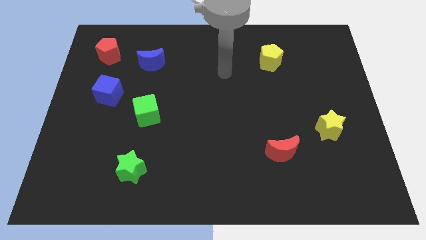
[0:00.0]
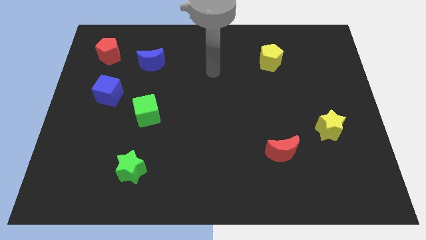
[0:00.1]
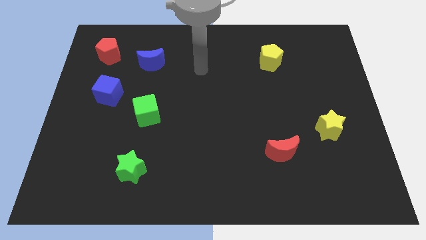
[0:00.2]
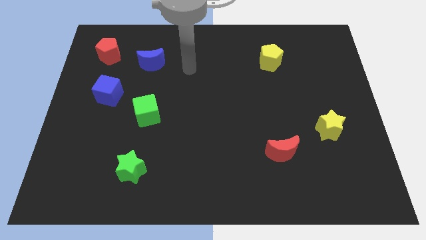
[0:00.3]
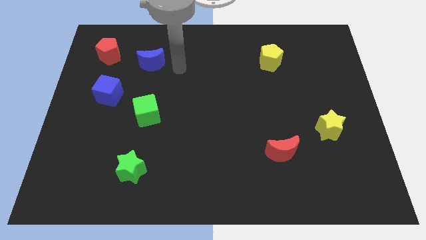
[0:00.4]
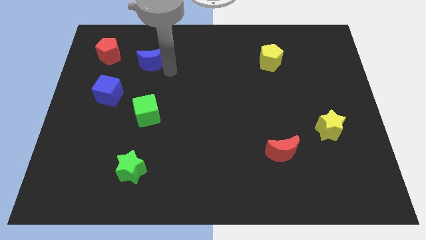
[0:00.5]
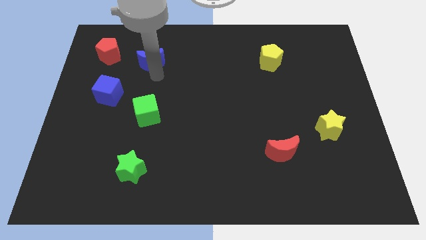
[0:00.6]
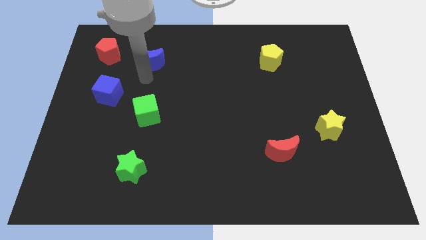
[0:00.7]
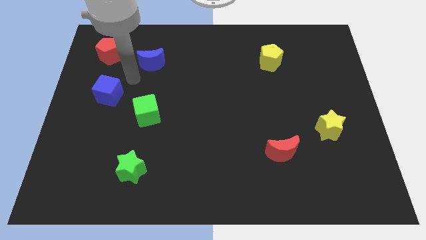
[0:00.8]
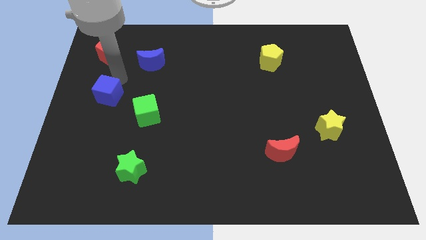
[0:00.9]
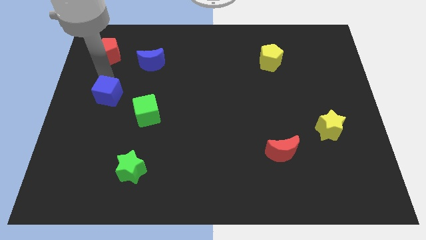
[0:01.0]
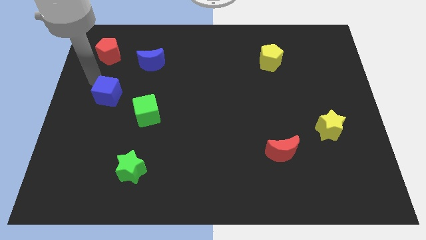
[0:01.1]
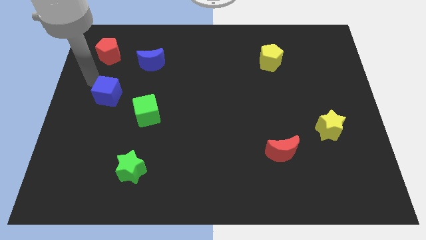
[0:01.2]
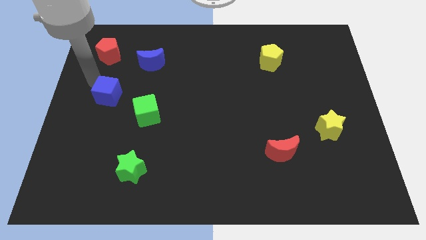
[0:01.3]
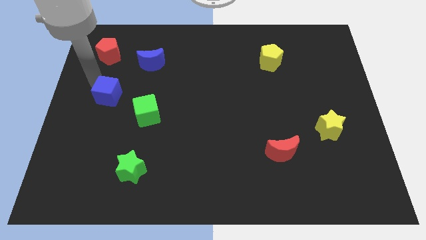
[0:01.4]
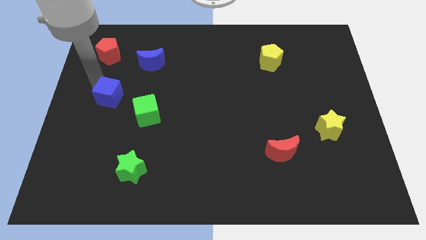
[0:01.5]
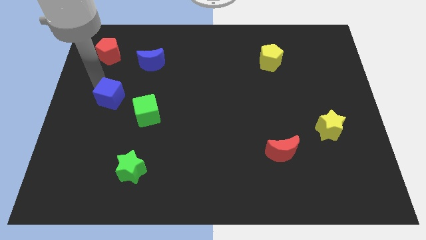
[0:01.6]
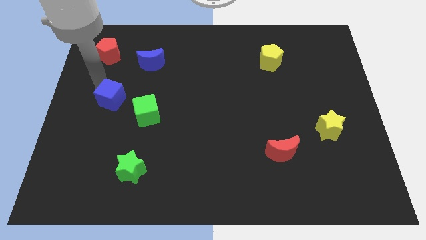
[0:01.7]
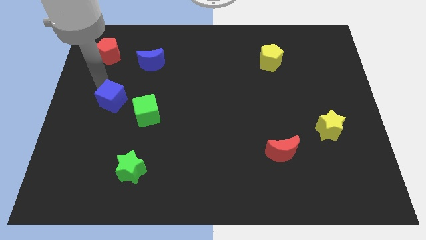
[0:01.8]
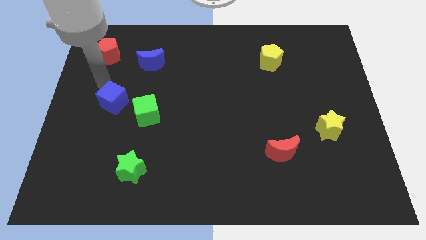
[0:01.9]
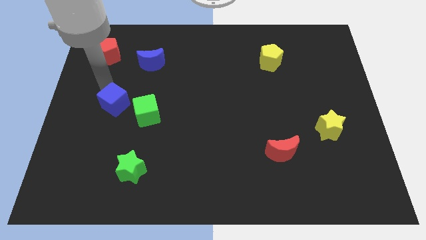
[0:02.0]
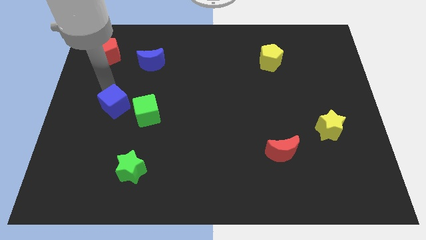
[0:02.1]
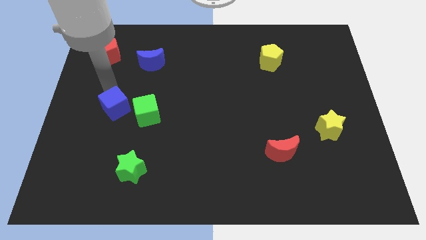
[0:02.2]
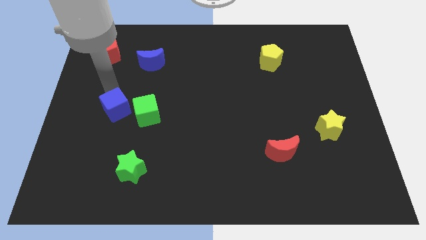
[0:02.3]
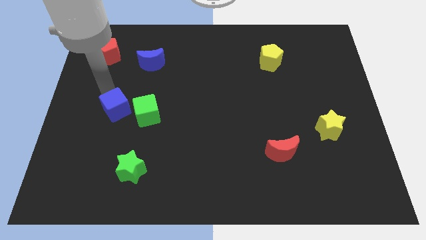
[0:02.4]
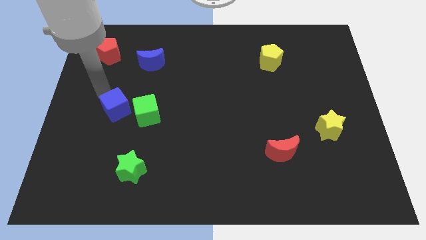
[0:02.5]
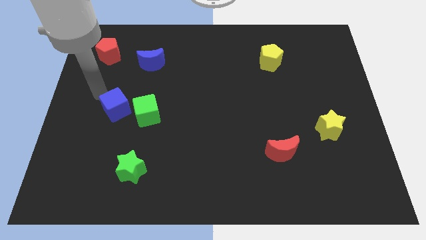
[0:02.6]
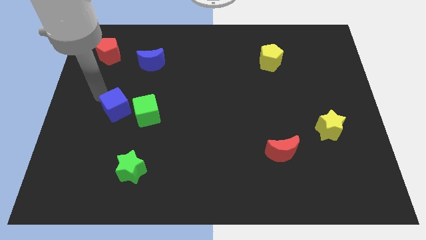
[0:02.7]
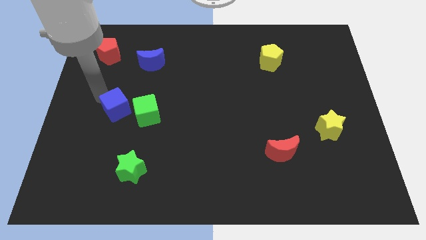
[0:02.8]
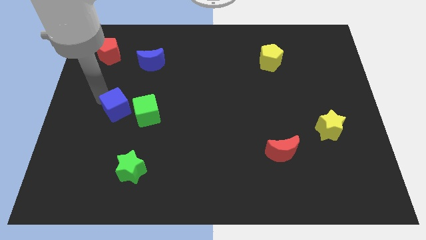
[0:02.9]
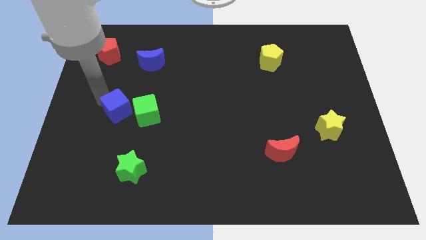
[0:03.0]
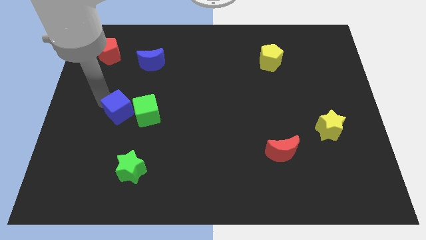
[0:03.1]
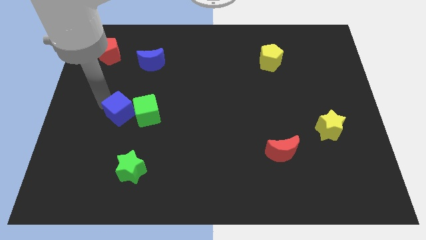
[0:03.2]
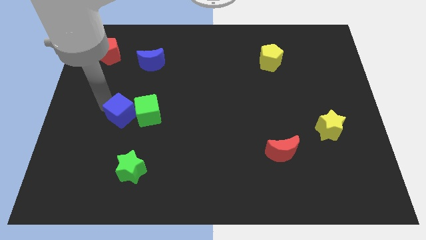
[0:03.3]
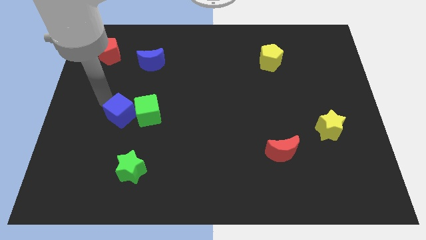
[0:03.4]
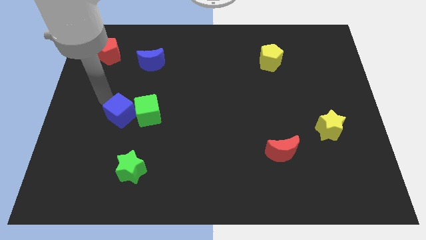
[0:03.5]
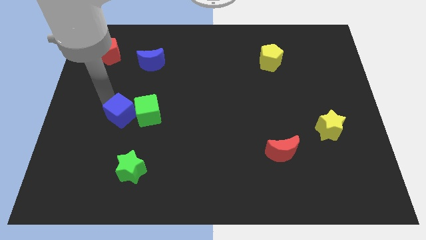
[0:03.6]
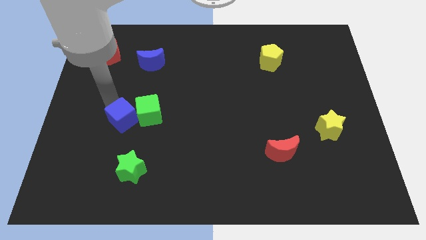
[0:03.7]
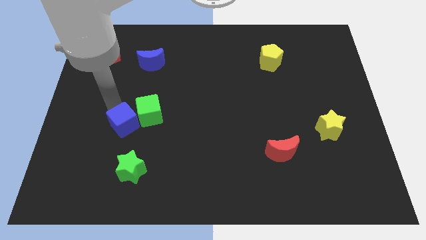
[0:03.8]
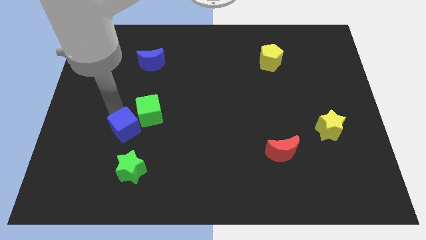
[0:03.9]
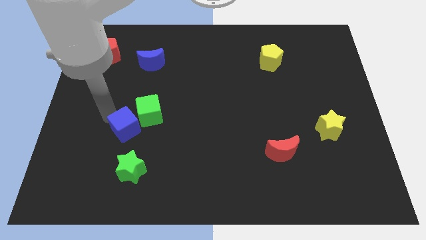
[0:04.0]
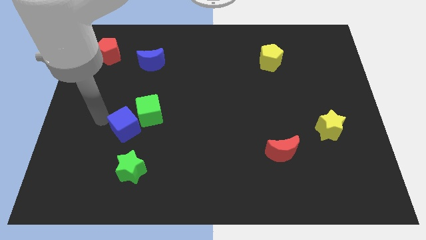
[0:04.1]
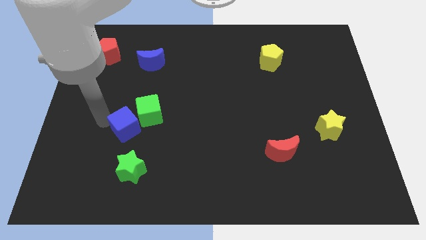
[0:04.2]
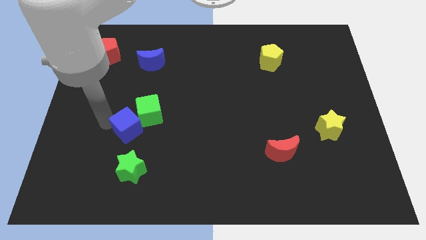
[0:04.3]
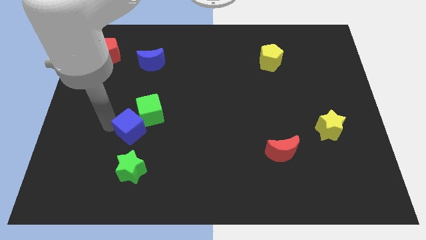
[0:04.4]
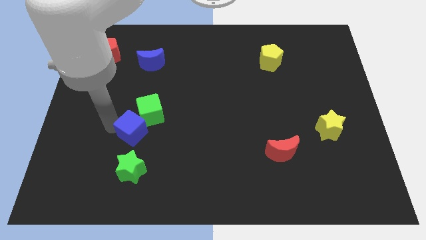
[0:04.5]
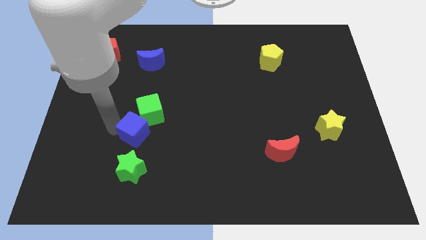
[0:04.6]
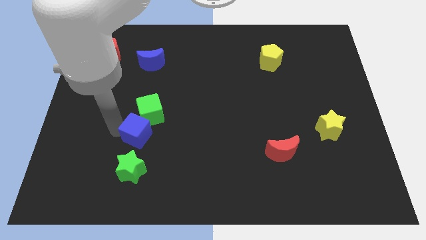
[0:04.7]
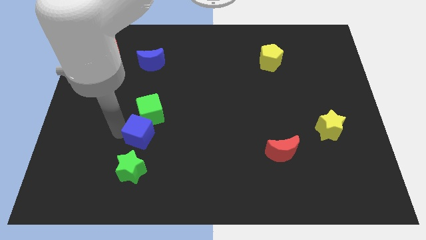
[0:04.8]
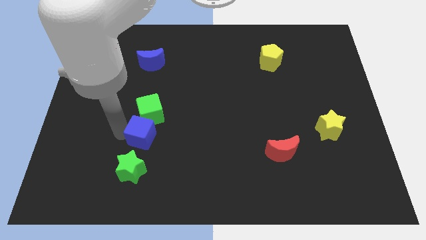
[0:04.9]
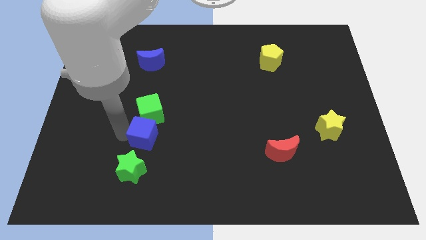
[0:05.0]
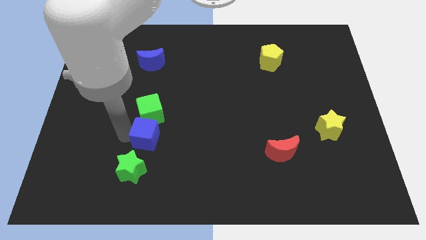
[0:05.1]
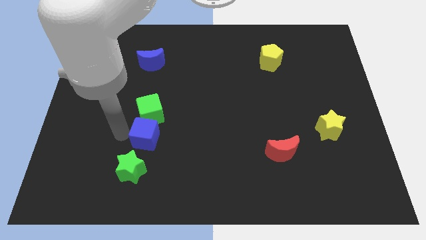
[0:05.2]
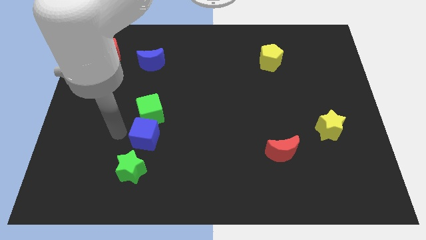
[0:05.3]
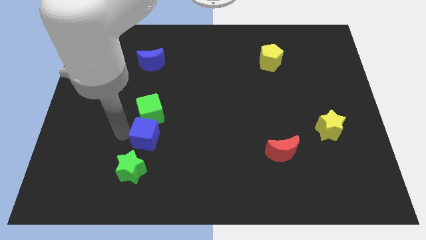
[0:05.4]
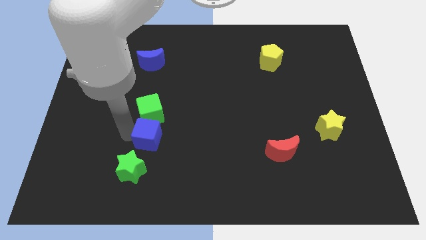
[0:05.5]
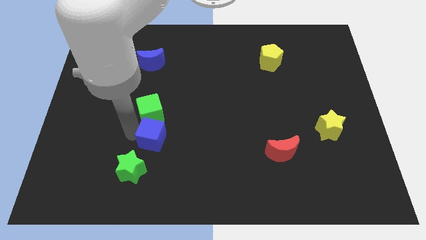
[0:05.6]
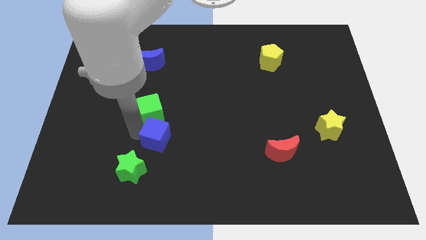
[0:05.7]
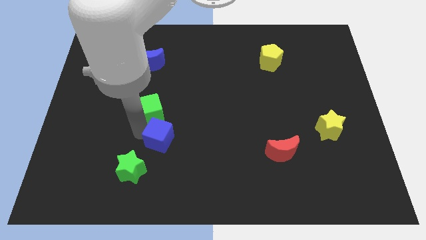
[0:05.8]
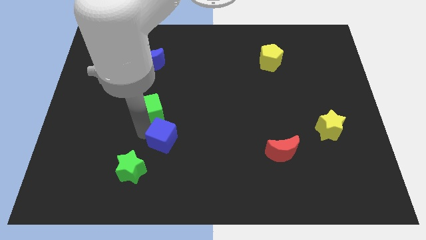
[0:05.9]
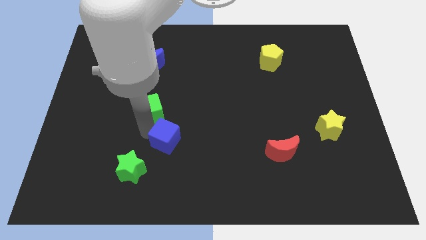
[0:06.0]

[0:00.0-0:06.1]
slide the blue cube down and then to the right

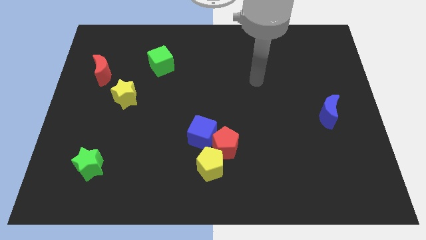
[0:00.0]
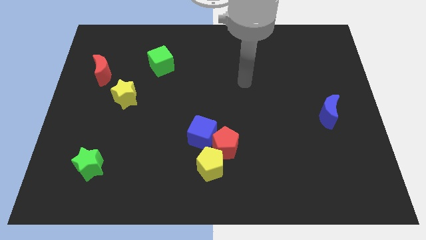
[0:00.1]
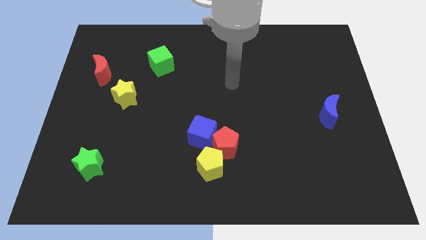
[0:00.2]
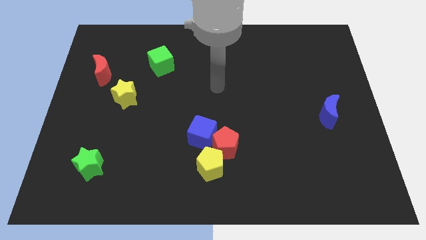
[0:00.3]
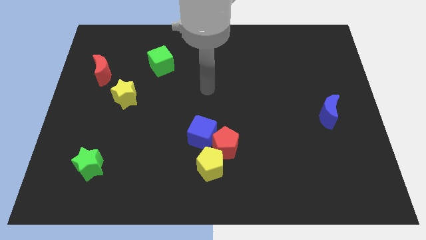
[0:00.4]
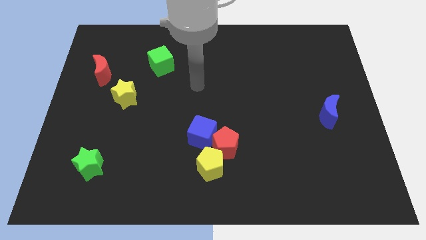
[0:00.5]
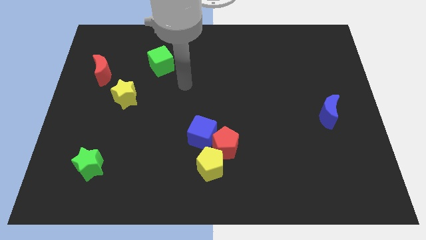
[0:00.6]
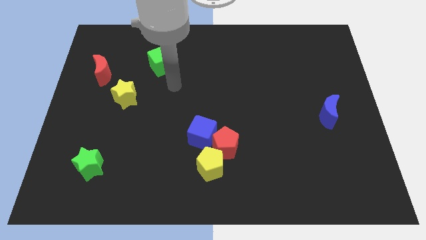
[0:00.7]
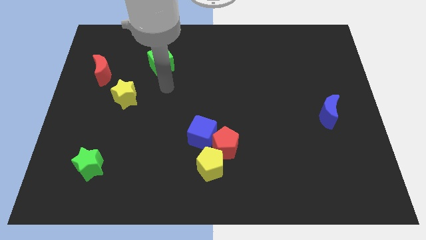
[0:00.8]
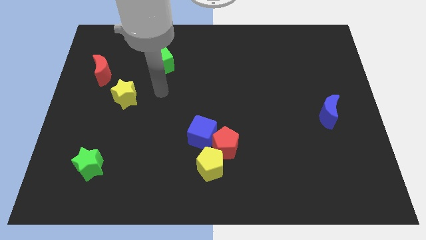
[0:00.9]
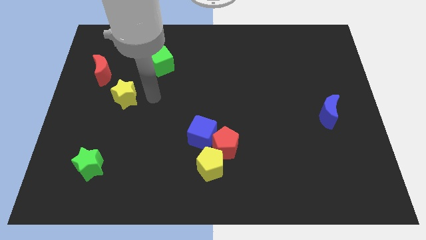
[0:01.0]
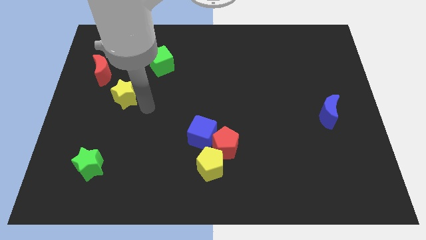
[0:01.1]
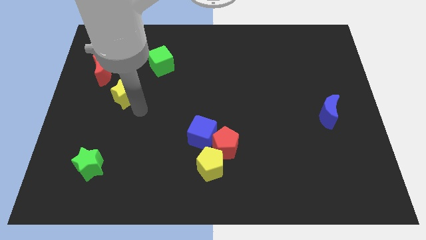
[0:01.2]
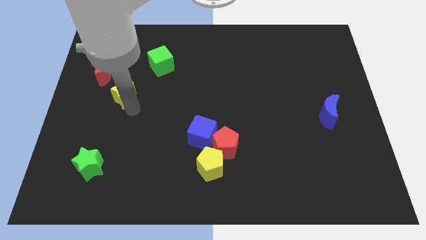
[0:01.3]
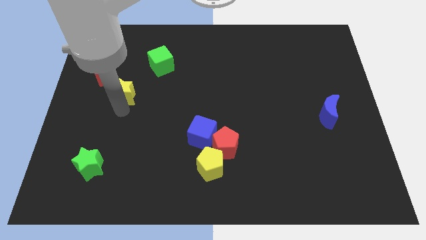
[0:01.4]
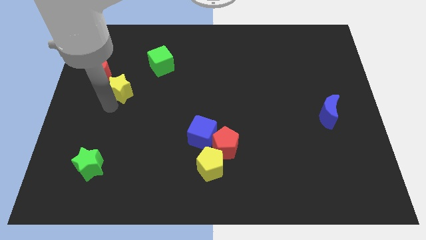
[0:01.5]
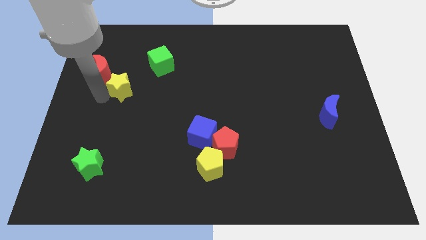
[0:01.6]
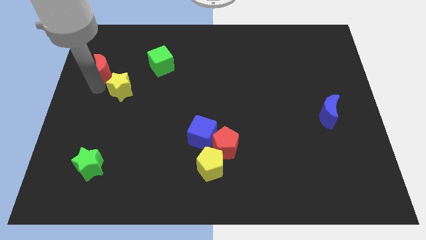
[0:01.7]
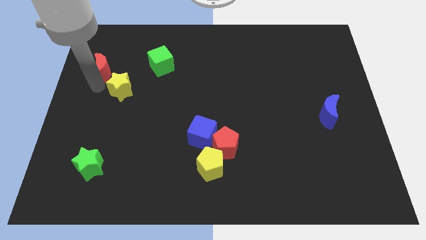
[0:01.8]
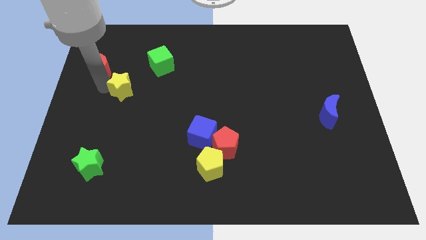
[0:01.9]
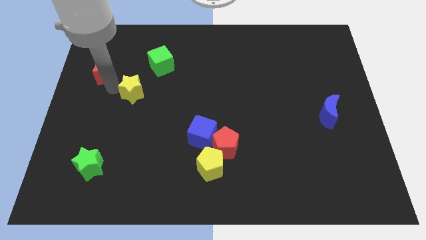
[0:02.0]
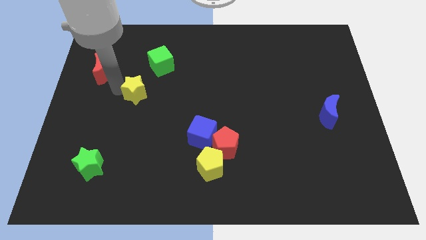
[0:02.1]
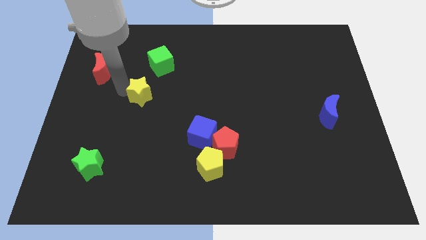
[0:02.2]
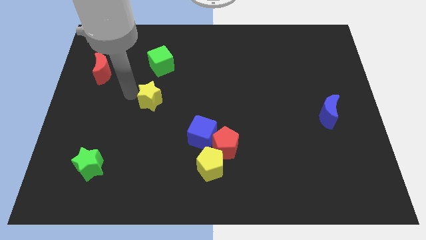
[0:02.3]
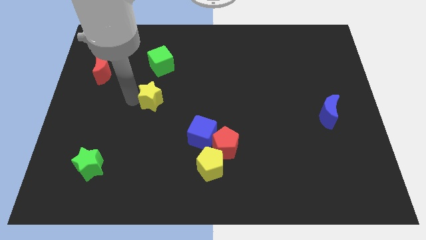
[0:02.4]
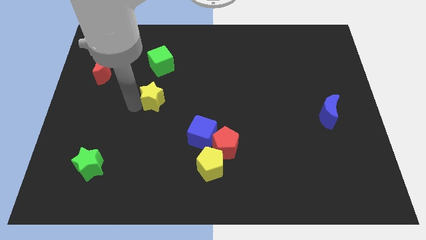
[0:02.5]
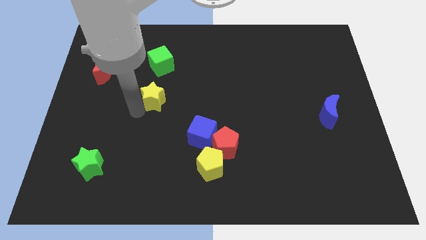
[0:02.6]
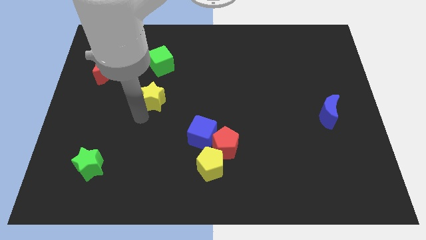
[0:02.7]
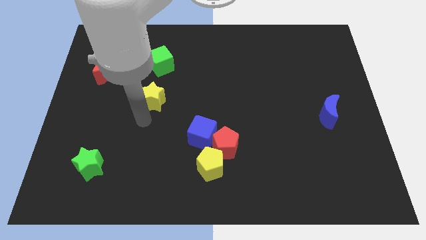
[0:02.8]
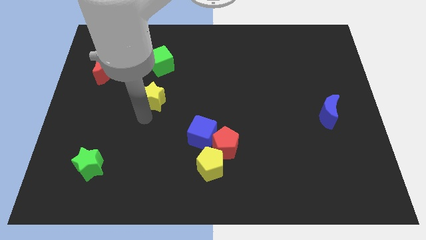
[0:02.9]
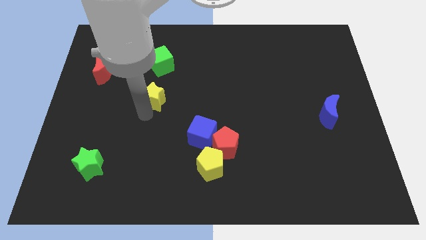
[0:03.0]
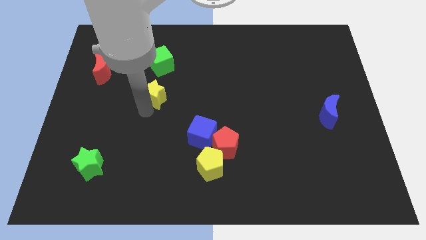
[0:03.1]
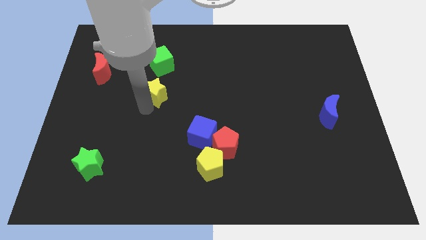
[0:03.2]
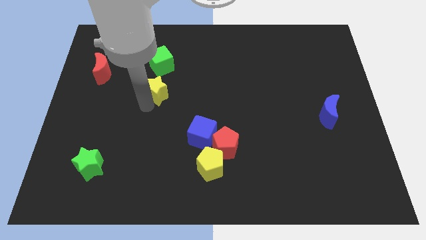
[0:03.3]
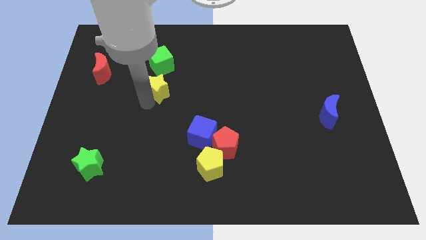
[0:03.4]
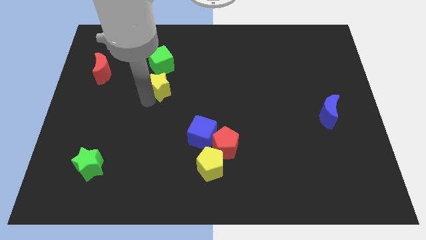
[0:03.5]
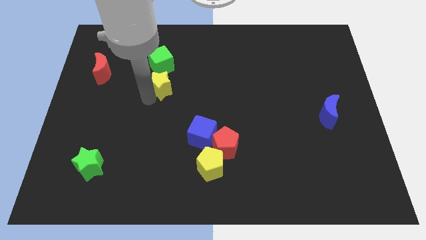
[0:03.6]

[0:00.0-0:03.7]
push the yellow star somewhat diagonally upwards and to the right
